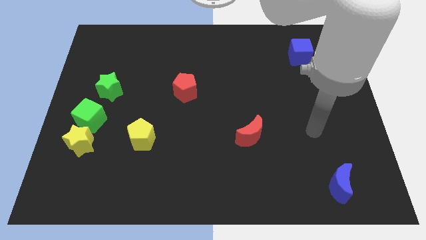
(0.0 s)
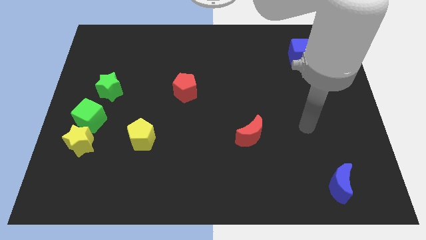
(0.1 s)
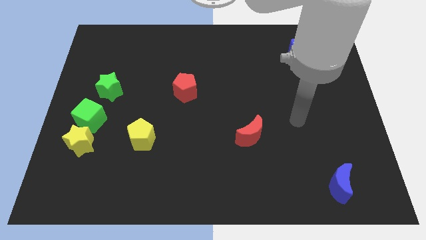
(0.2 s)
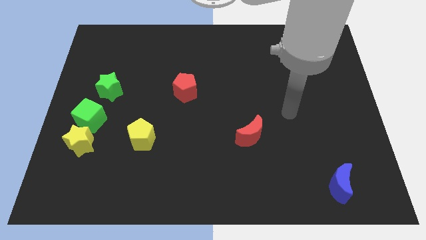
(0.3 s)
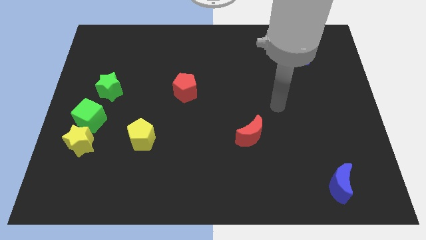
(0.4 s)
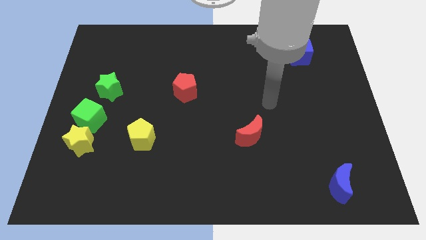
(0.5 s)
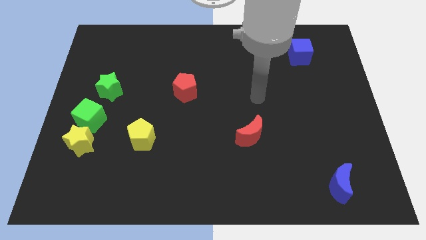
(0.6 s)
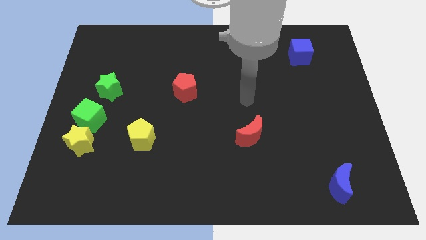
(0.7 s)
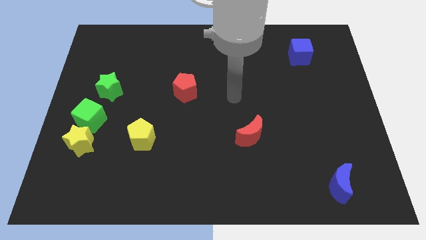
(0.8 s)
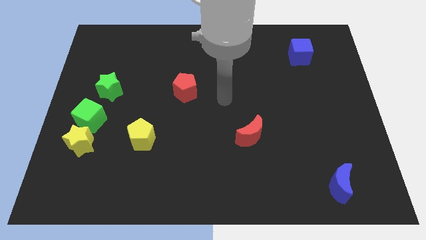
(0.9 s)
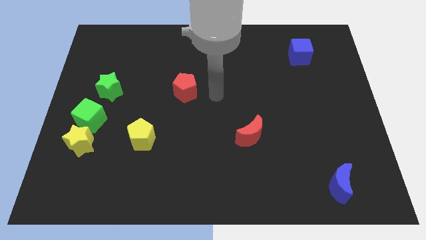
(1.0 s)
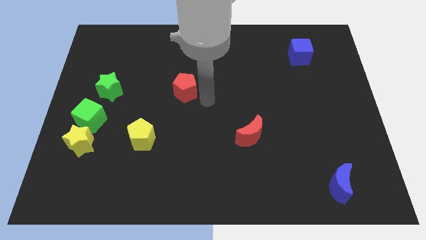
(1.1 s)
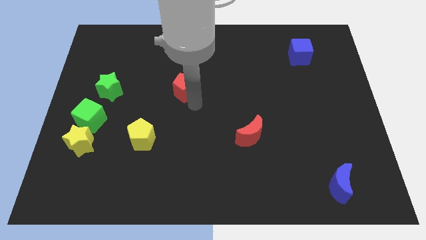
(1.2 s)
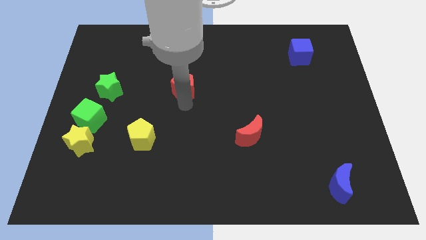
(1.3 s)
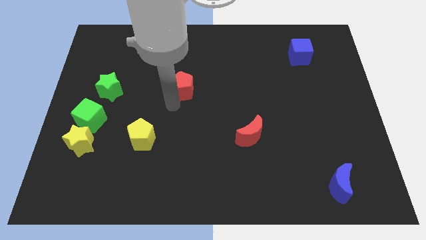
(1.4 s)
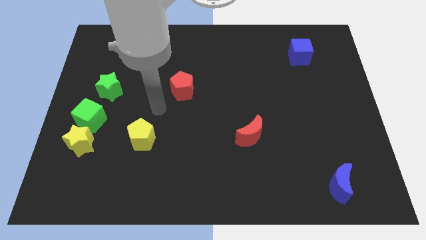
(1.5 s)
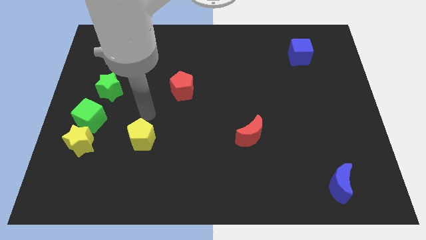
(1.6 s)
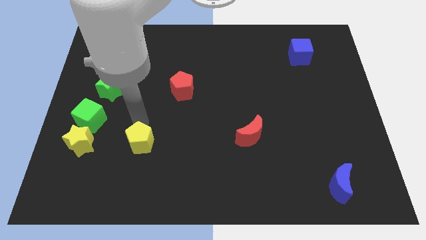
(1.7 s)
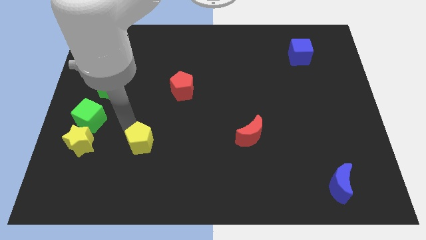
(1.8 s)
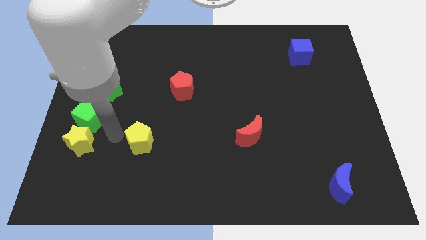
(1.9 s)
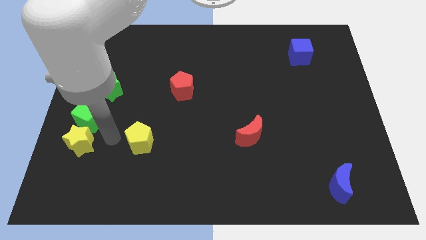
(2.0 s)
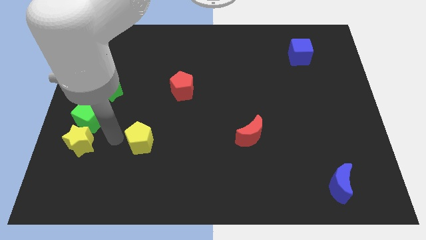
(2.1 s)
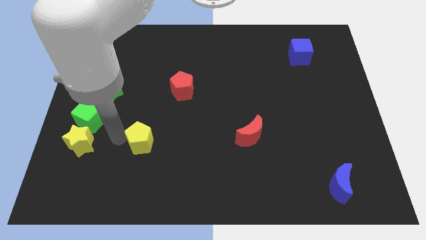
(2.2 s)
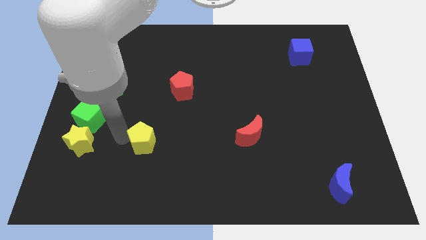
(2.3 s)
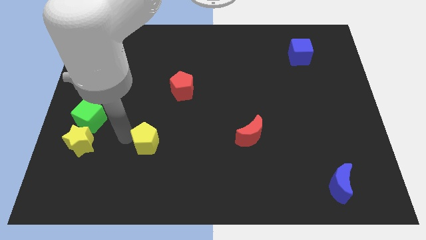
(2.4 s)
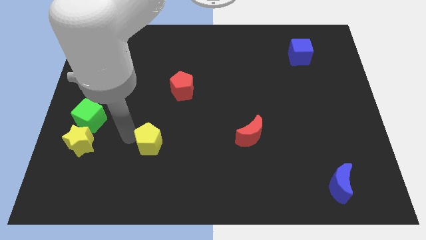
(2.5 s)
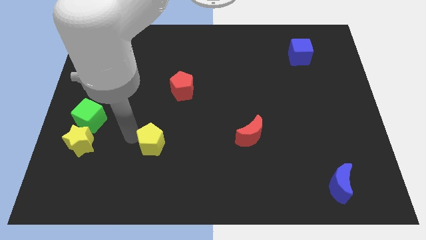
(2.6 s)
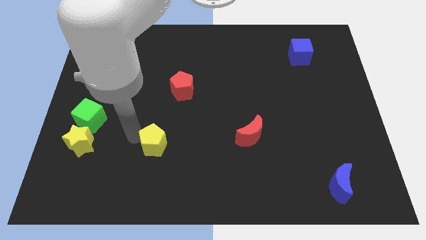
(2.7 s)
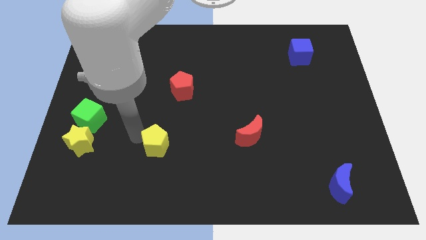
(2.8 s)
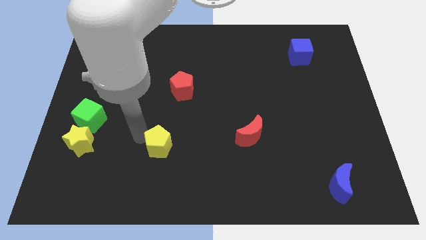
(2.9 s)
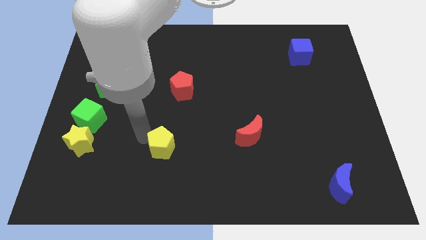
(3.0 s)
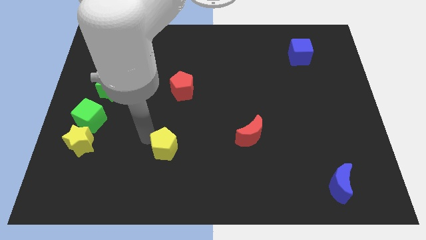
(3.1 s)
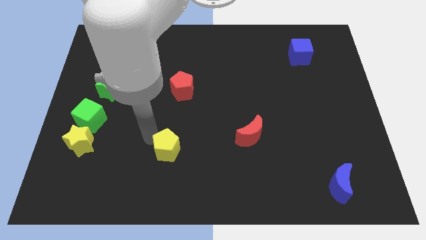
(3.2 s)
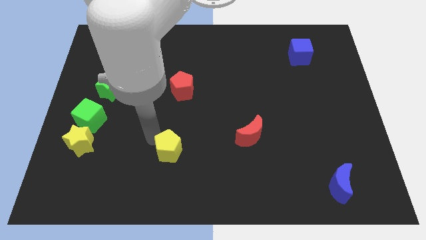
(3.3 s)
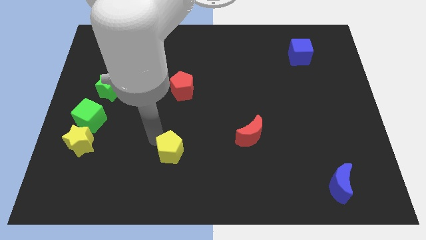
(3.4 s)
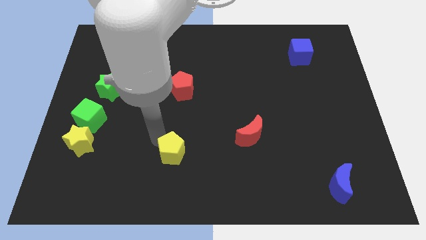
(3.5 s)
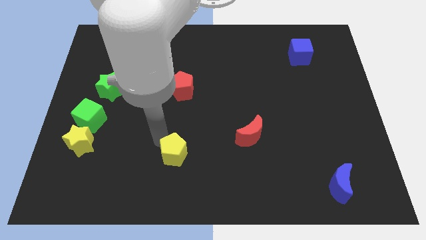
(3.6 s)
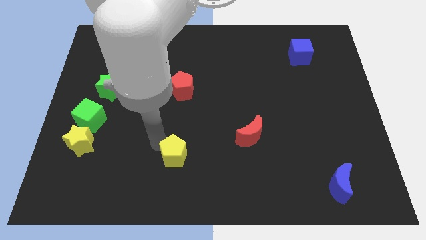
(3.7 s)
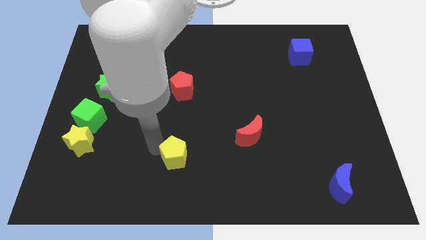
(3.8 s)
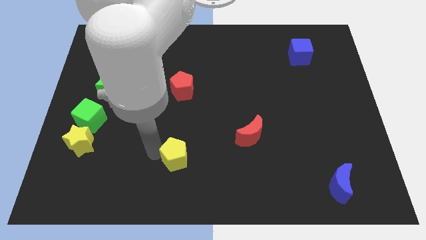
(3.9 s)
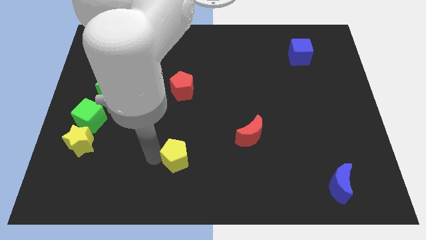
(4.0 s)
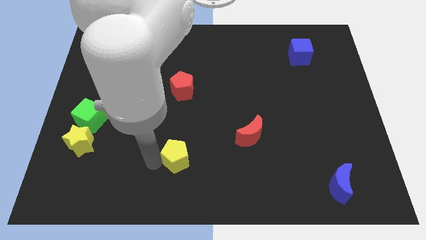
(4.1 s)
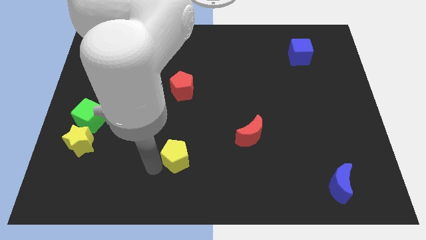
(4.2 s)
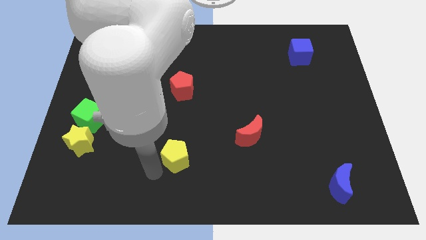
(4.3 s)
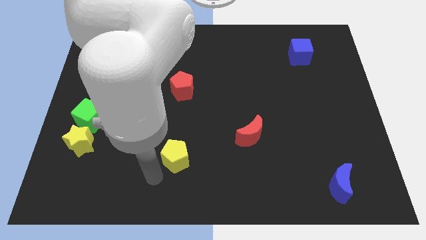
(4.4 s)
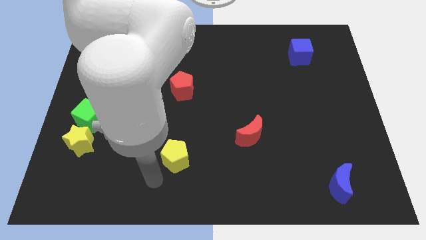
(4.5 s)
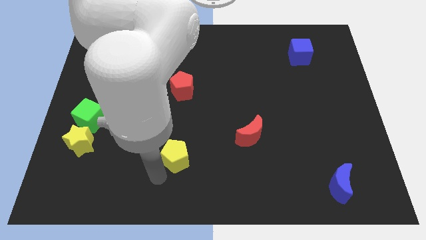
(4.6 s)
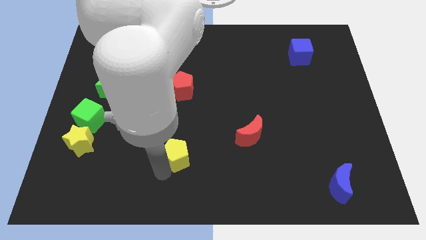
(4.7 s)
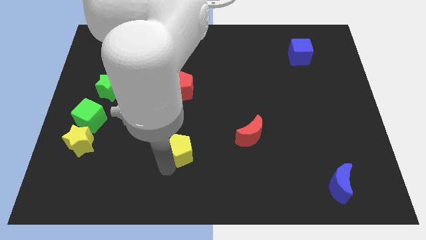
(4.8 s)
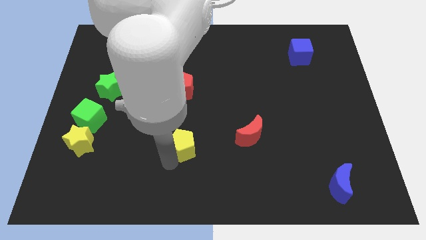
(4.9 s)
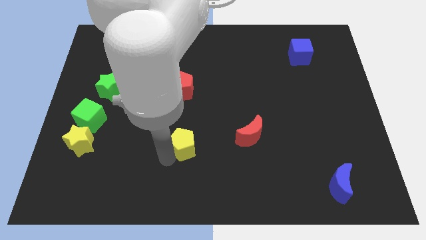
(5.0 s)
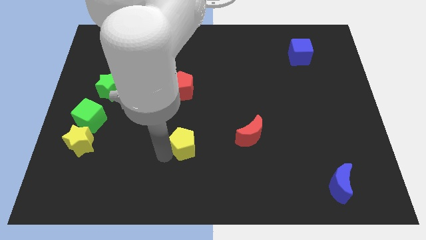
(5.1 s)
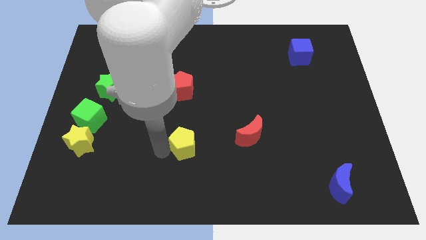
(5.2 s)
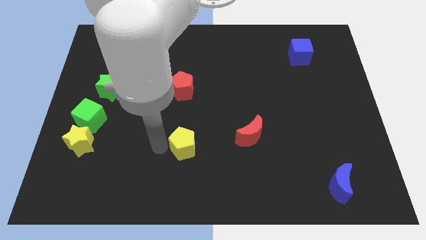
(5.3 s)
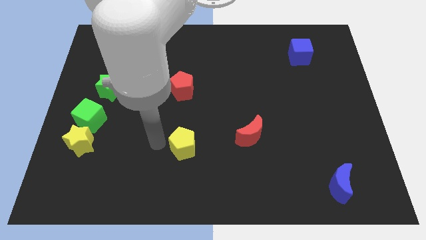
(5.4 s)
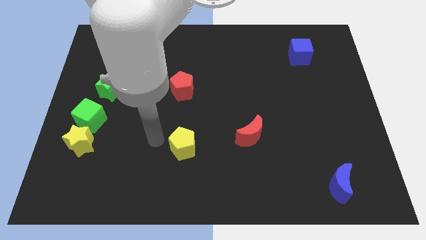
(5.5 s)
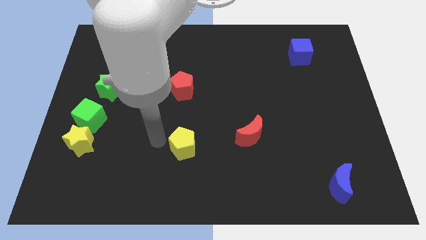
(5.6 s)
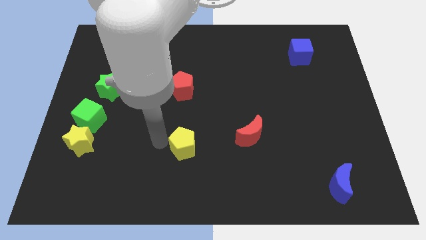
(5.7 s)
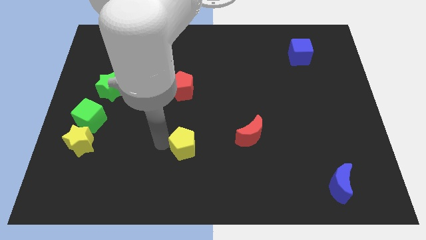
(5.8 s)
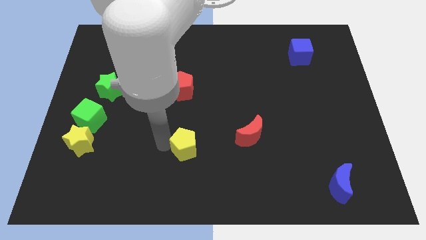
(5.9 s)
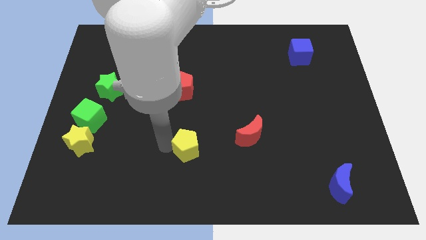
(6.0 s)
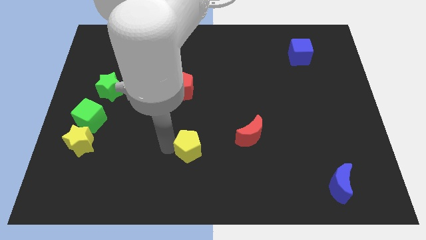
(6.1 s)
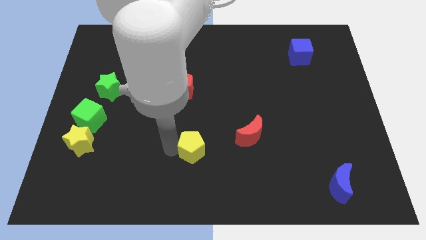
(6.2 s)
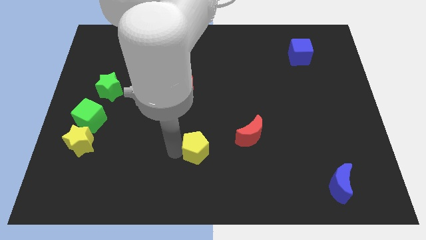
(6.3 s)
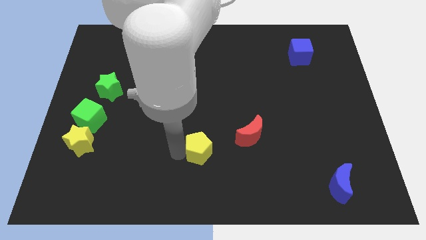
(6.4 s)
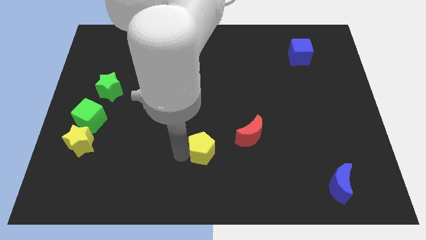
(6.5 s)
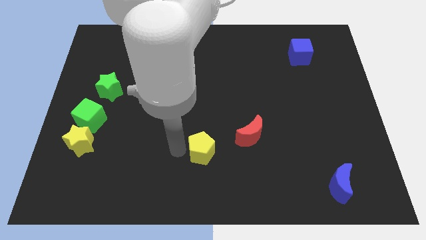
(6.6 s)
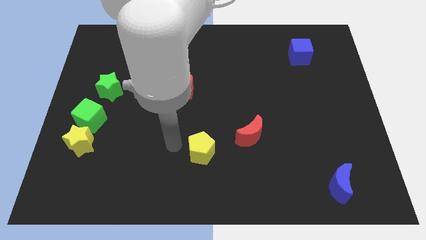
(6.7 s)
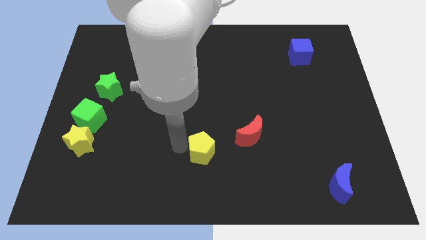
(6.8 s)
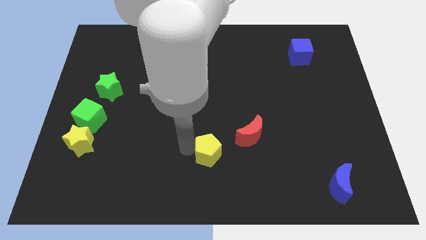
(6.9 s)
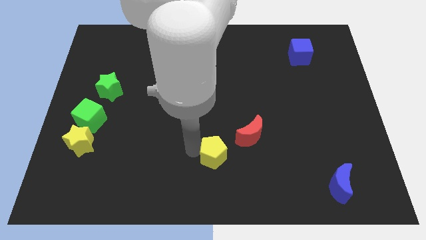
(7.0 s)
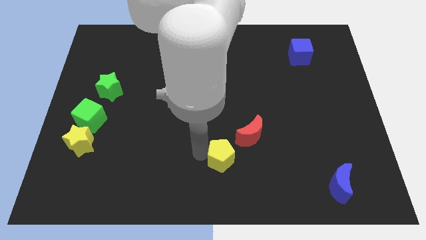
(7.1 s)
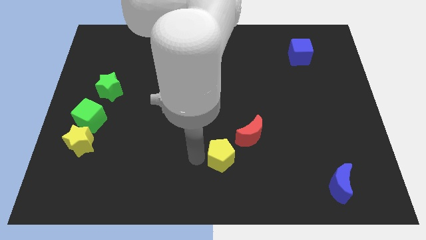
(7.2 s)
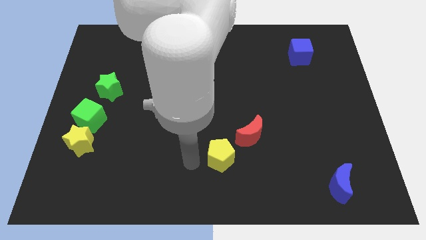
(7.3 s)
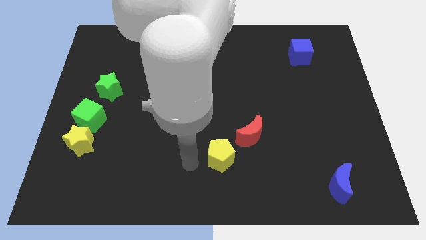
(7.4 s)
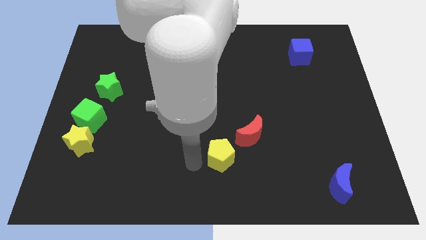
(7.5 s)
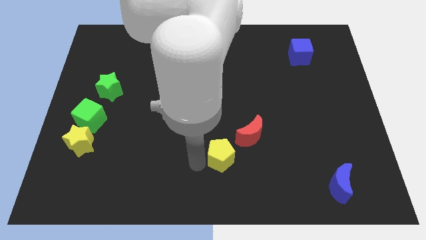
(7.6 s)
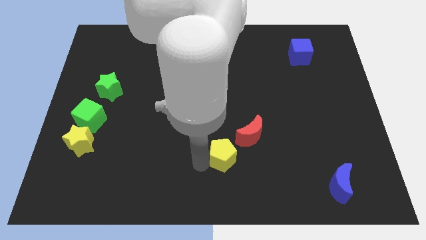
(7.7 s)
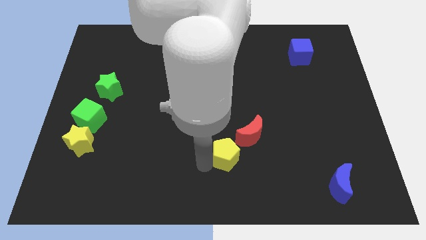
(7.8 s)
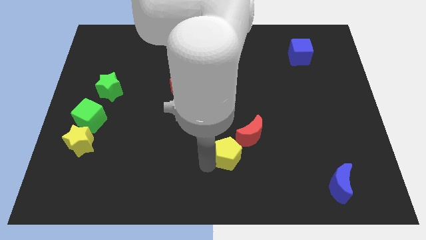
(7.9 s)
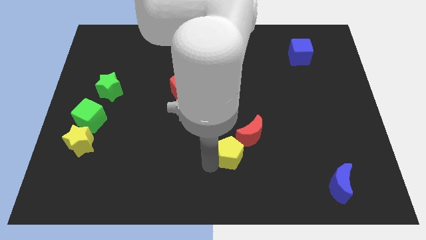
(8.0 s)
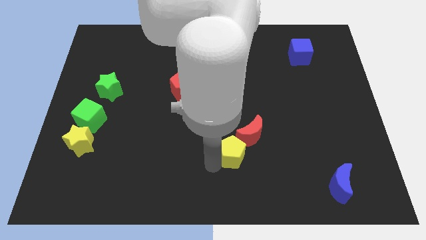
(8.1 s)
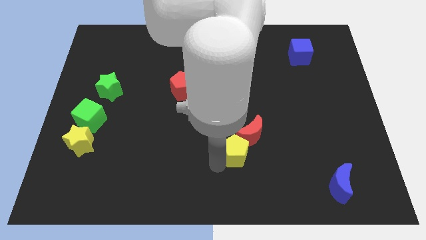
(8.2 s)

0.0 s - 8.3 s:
push the yellow pentagon right
